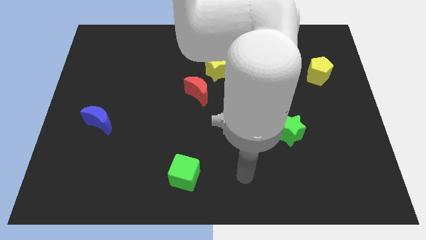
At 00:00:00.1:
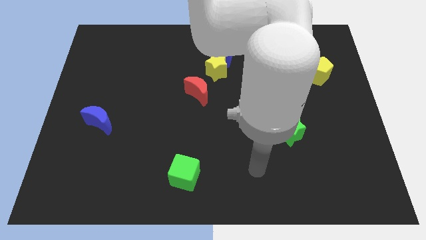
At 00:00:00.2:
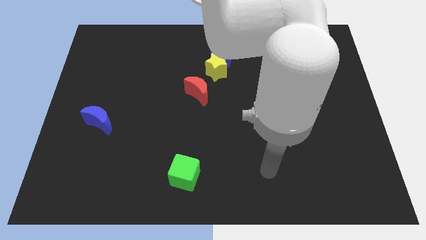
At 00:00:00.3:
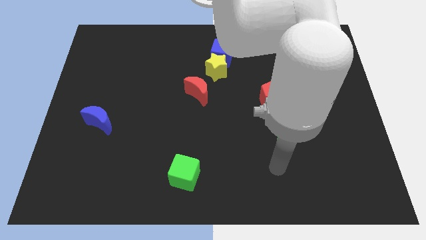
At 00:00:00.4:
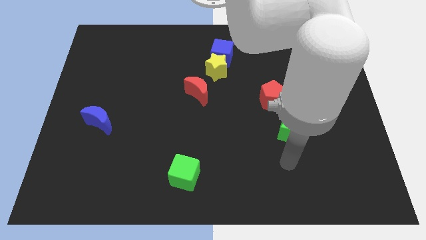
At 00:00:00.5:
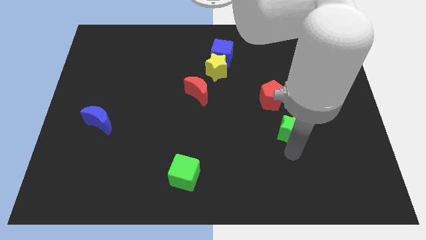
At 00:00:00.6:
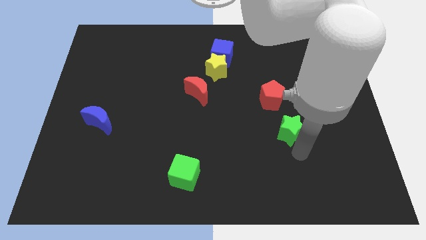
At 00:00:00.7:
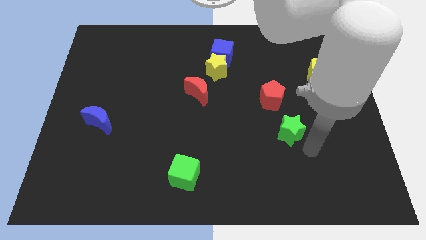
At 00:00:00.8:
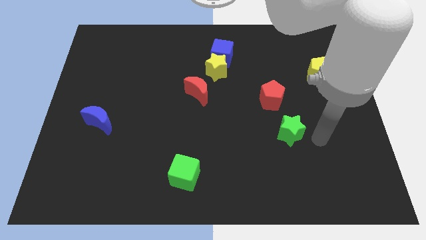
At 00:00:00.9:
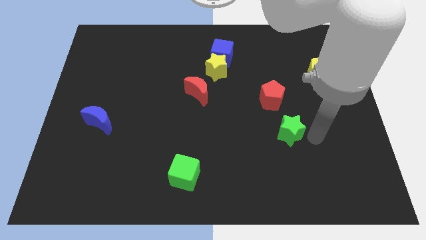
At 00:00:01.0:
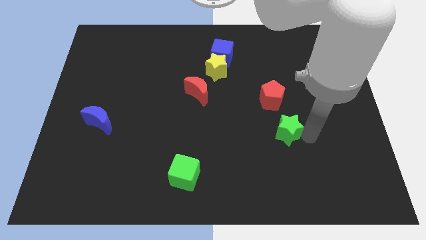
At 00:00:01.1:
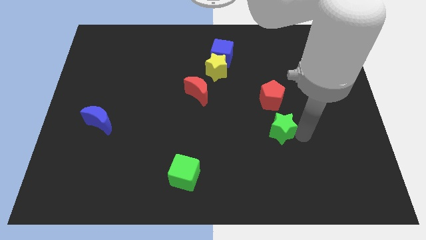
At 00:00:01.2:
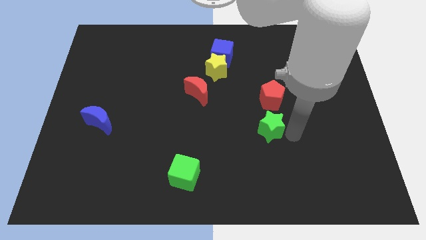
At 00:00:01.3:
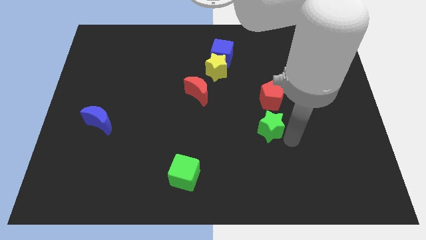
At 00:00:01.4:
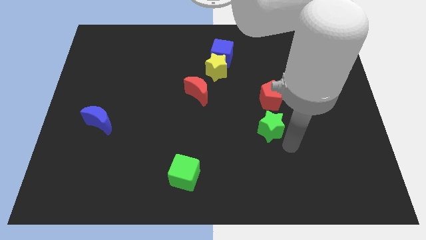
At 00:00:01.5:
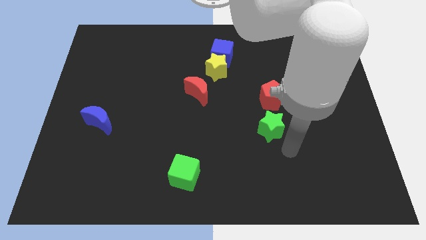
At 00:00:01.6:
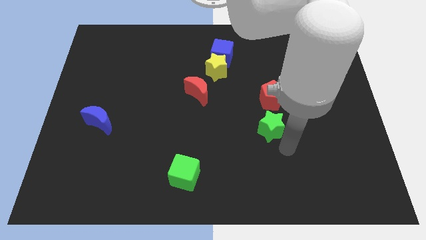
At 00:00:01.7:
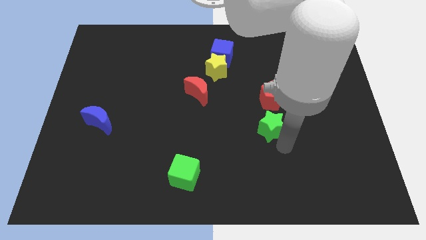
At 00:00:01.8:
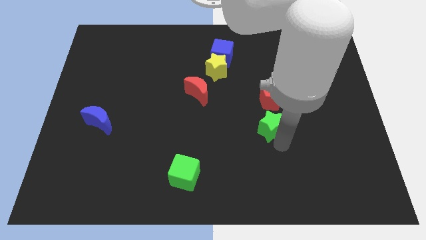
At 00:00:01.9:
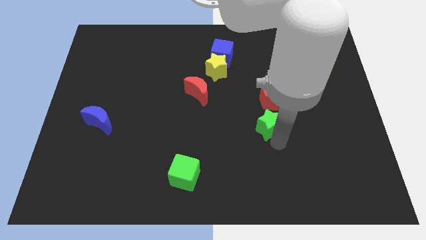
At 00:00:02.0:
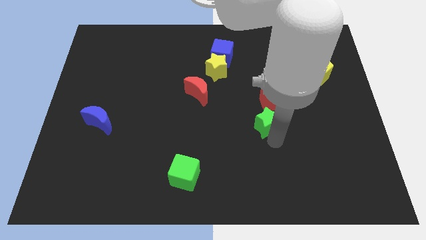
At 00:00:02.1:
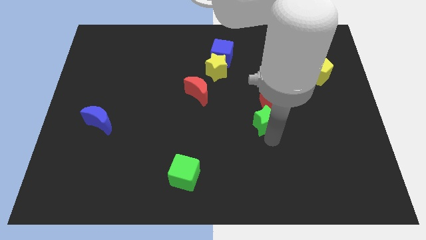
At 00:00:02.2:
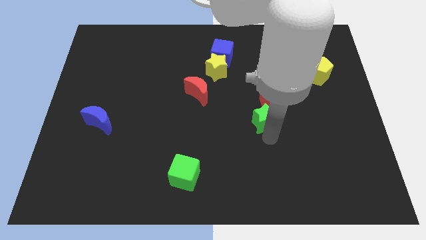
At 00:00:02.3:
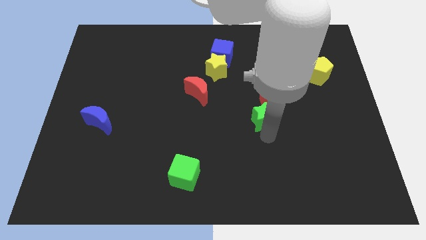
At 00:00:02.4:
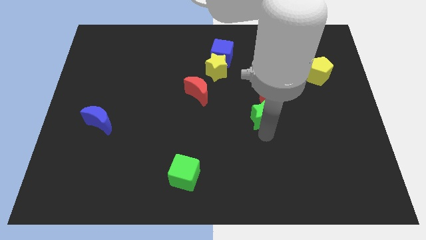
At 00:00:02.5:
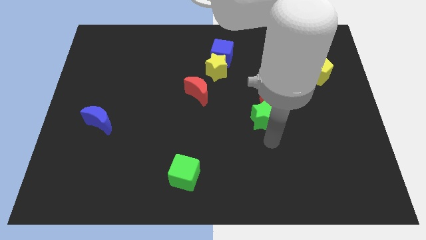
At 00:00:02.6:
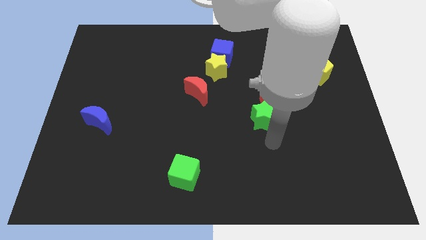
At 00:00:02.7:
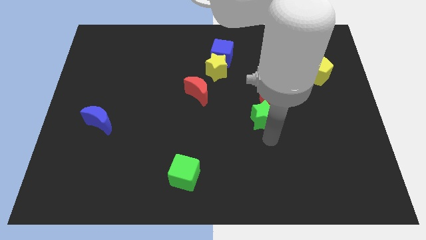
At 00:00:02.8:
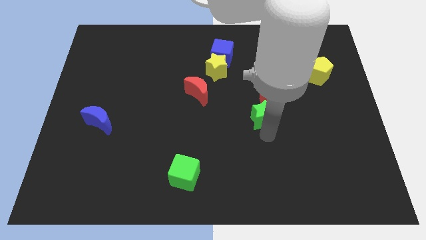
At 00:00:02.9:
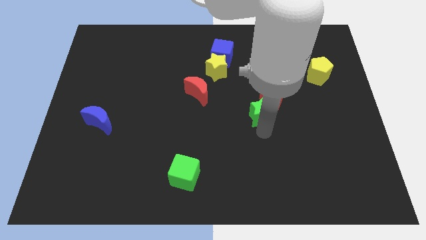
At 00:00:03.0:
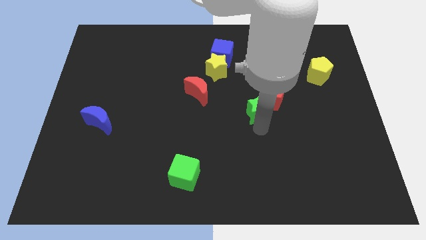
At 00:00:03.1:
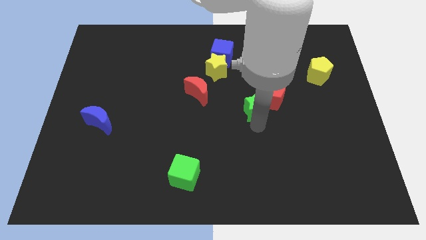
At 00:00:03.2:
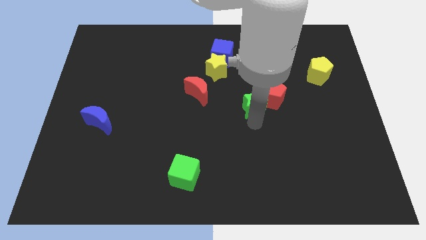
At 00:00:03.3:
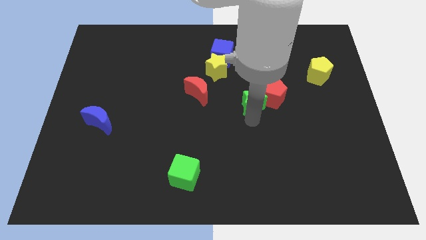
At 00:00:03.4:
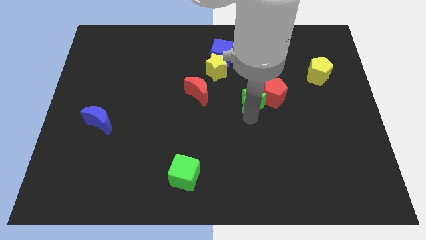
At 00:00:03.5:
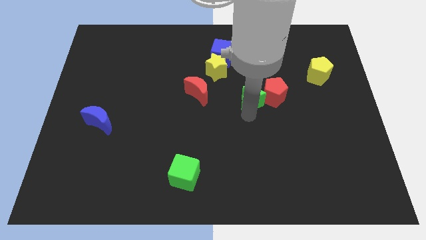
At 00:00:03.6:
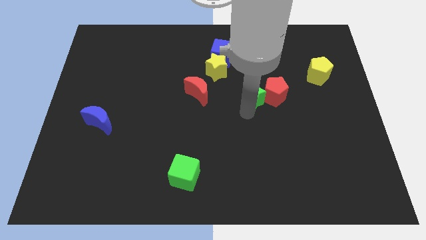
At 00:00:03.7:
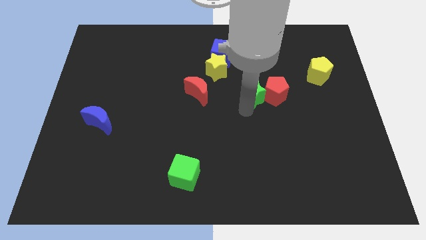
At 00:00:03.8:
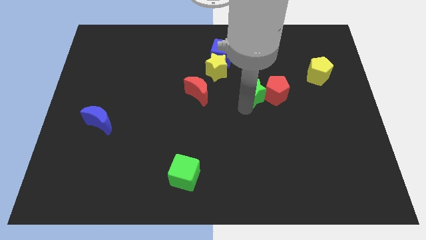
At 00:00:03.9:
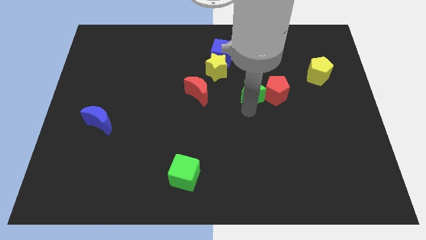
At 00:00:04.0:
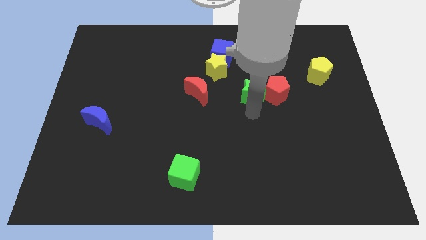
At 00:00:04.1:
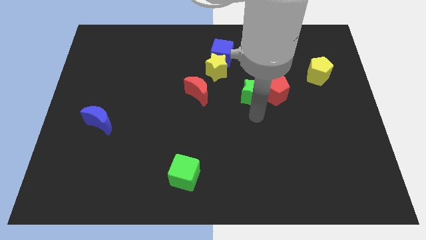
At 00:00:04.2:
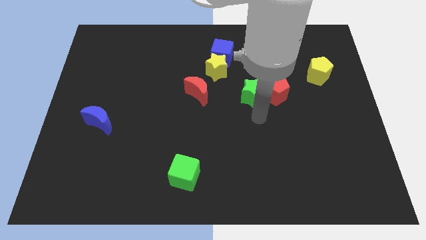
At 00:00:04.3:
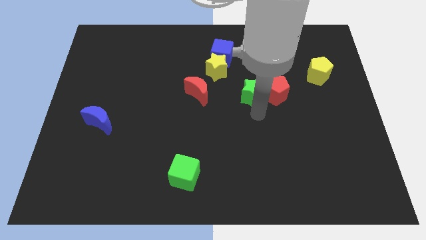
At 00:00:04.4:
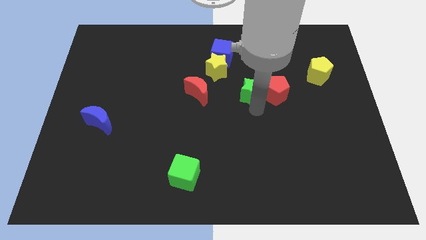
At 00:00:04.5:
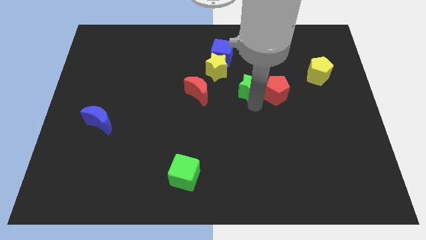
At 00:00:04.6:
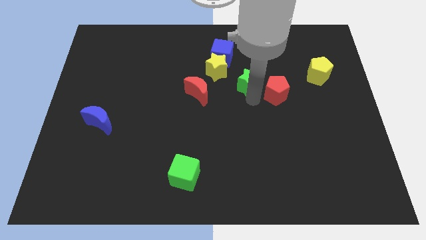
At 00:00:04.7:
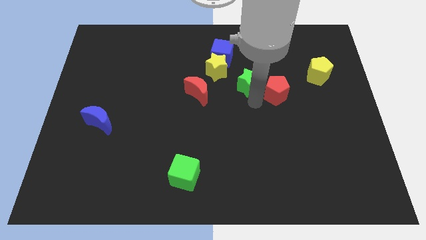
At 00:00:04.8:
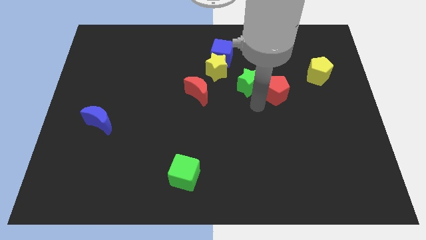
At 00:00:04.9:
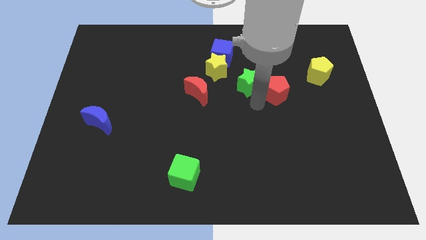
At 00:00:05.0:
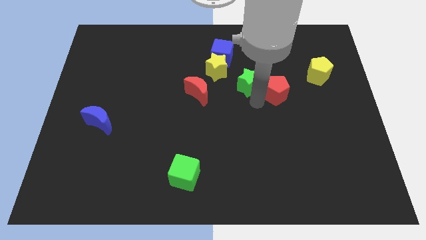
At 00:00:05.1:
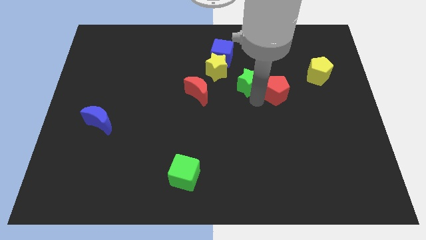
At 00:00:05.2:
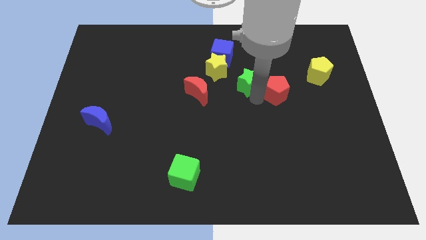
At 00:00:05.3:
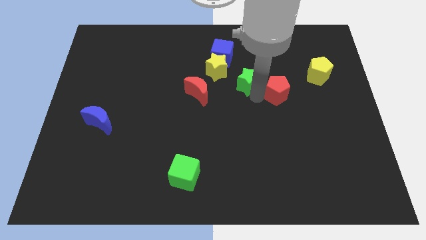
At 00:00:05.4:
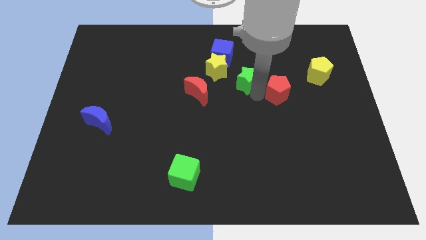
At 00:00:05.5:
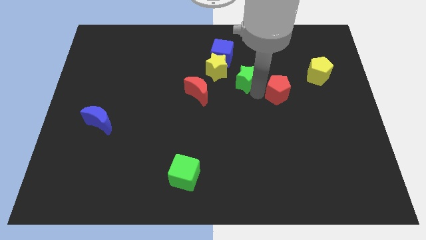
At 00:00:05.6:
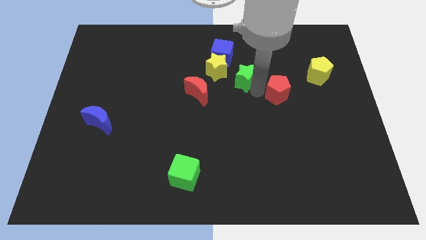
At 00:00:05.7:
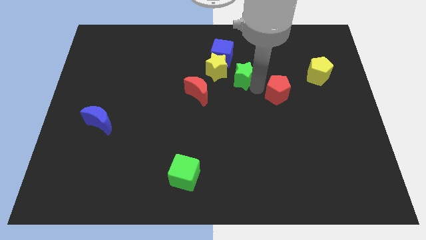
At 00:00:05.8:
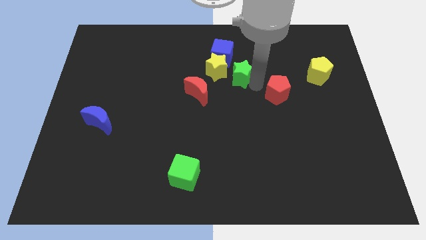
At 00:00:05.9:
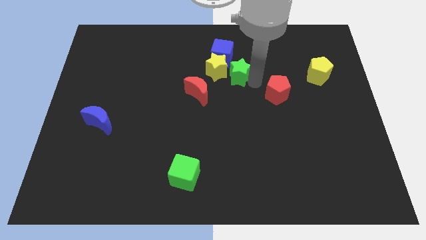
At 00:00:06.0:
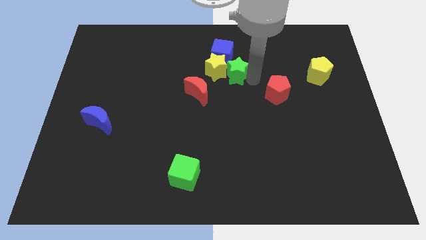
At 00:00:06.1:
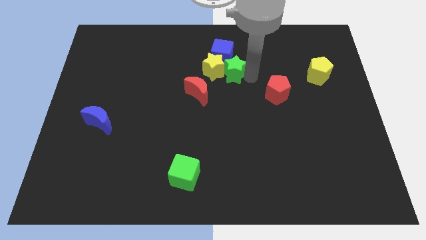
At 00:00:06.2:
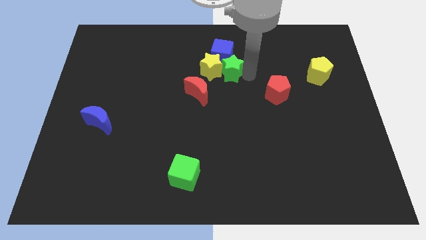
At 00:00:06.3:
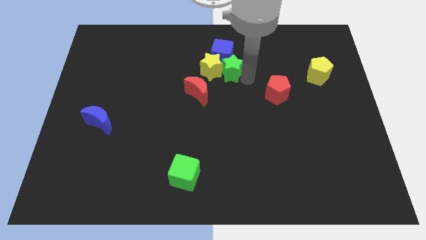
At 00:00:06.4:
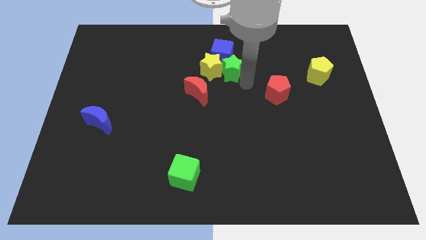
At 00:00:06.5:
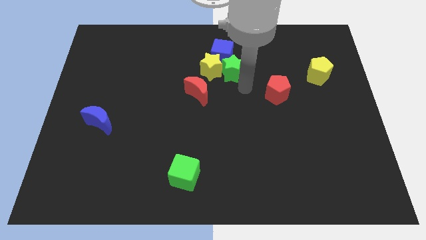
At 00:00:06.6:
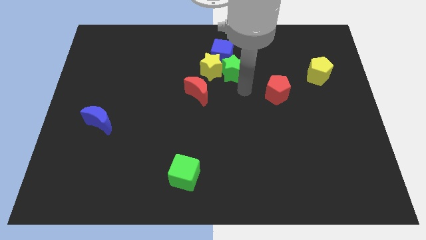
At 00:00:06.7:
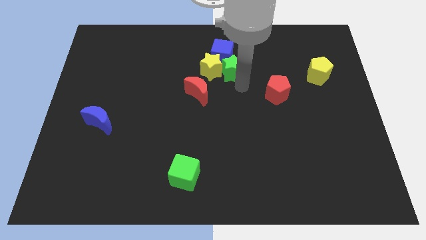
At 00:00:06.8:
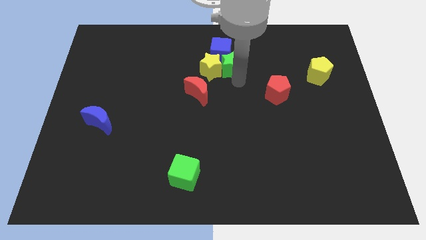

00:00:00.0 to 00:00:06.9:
push the green star next to the blue cube
